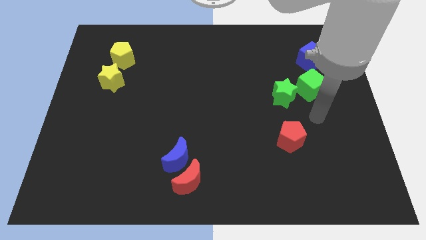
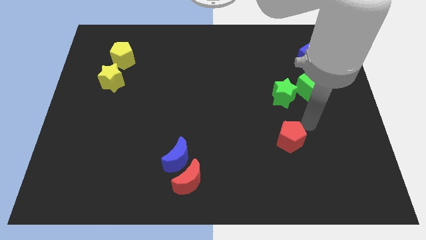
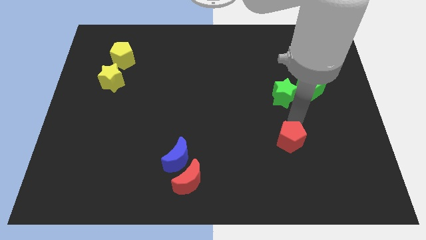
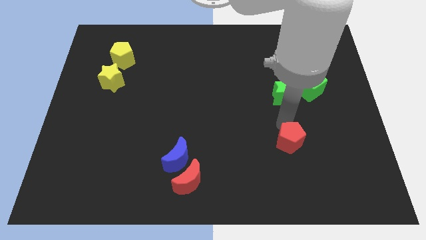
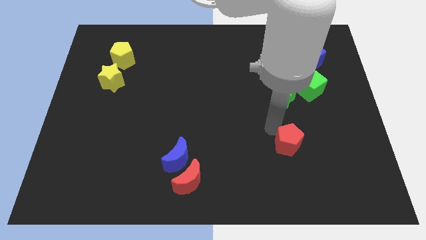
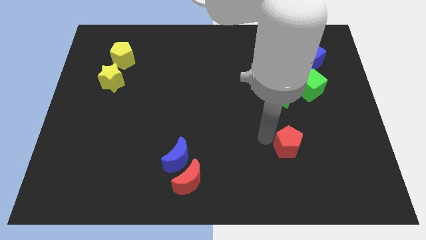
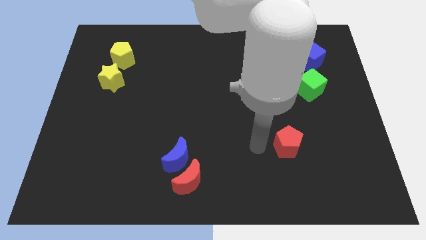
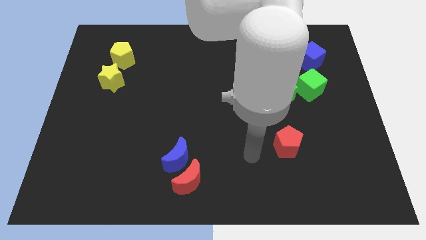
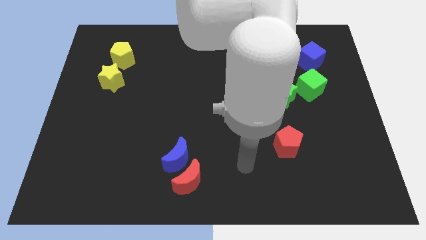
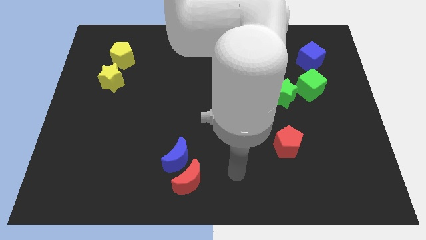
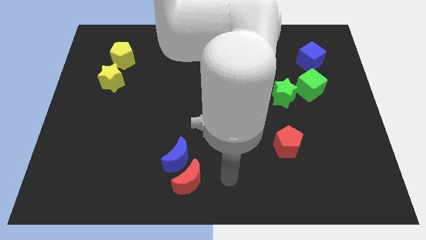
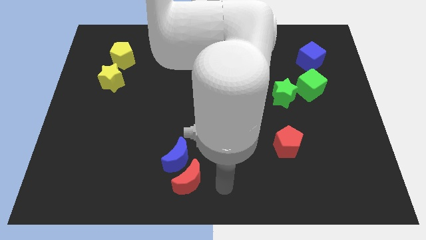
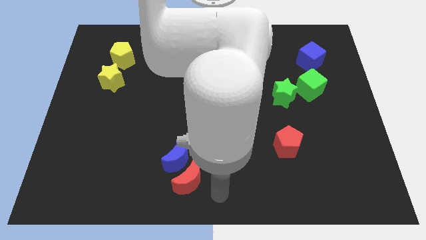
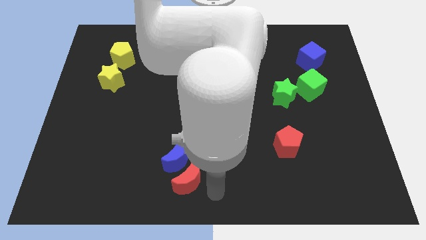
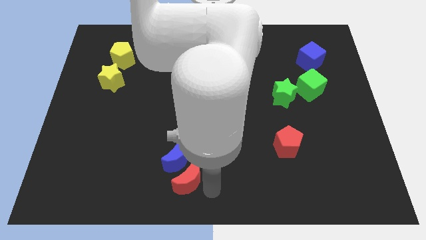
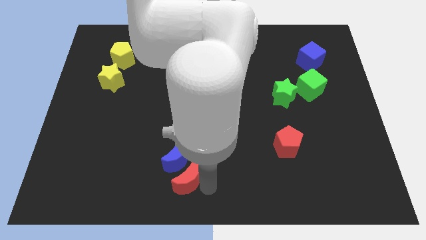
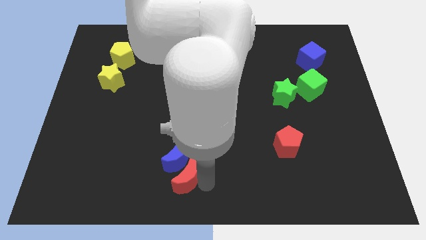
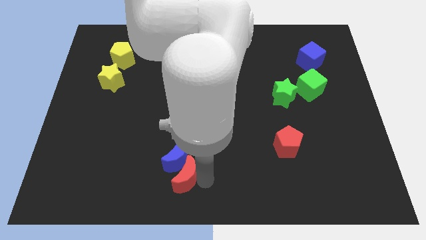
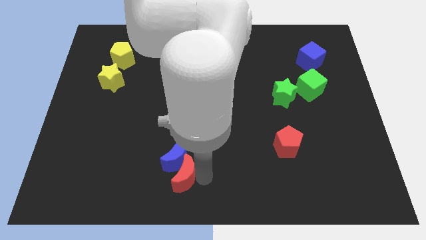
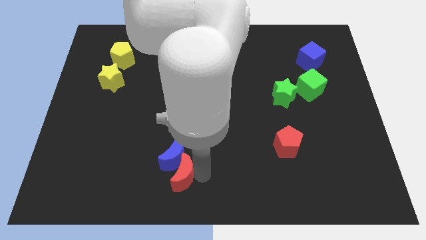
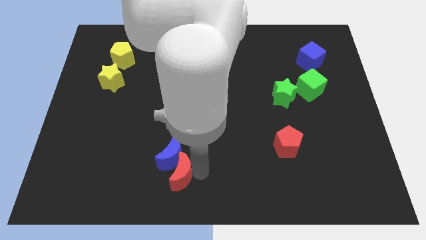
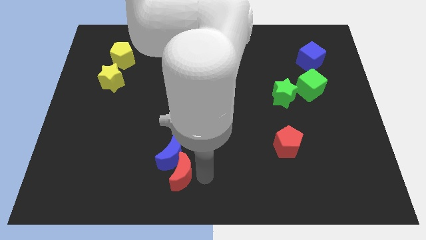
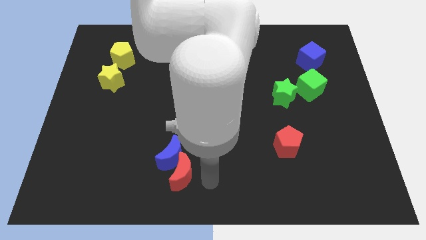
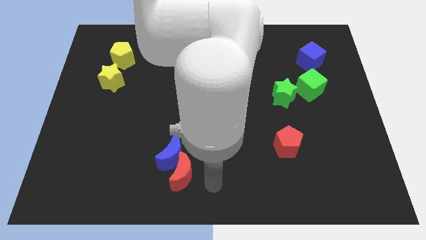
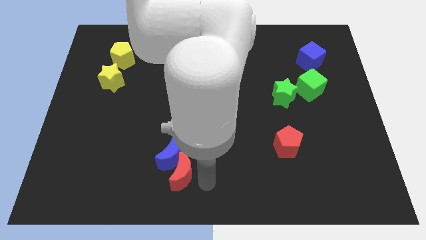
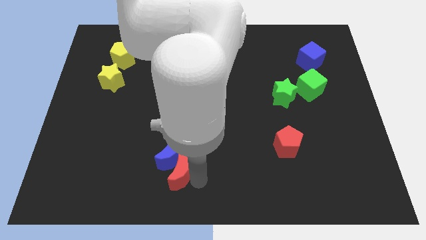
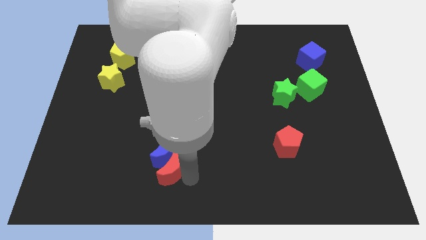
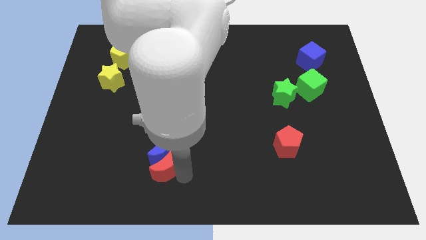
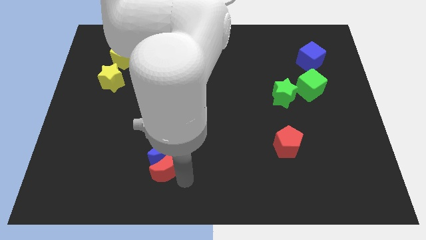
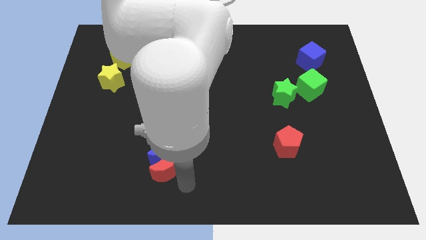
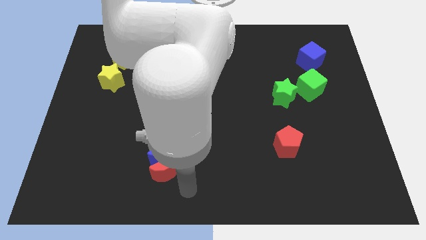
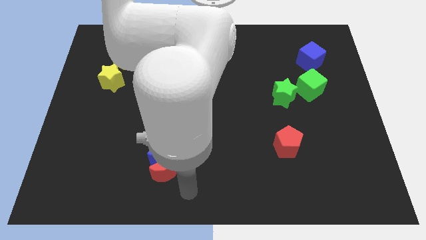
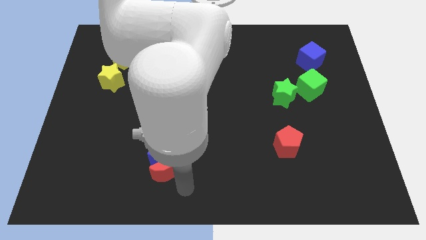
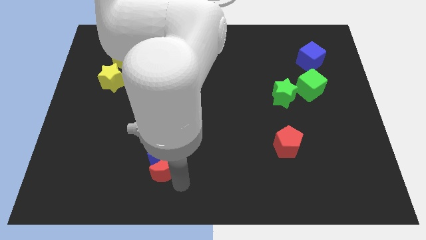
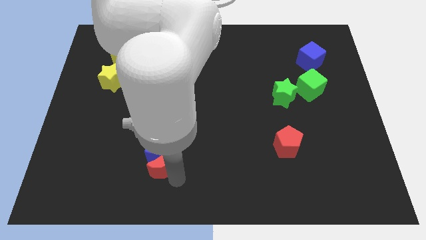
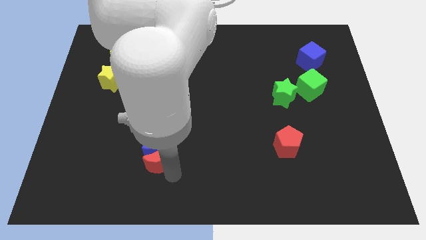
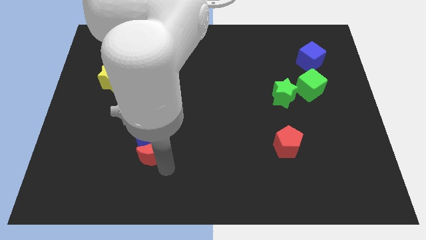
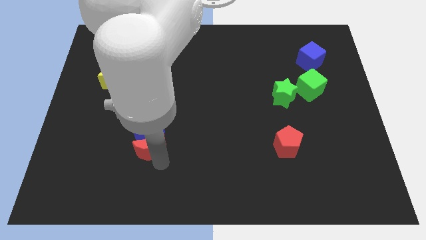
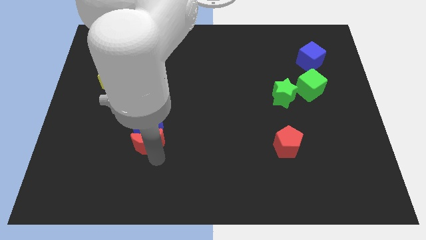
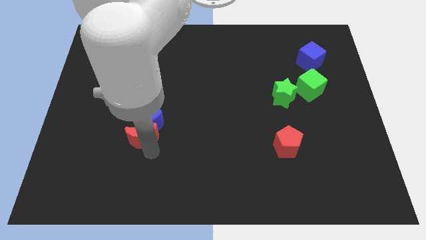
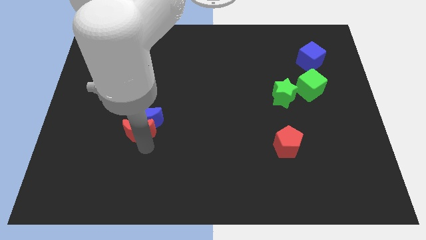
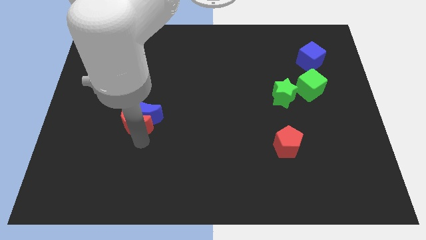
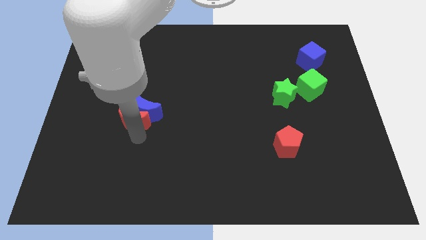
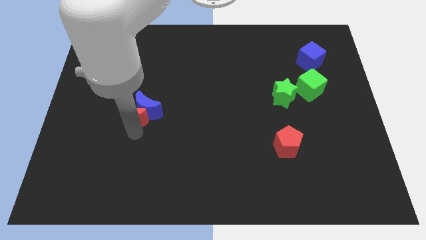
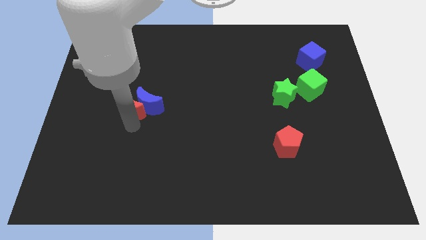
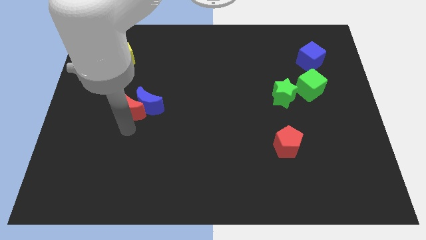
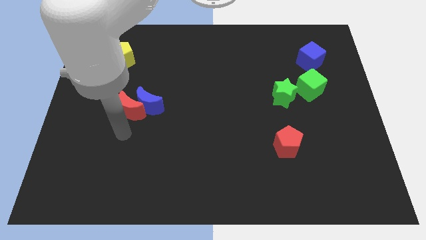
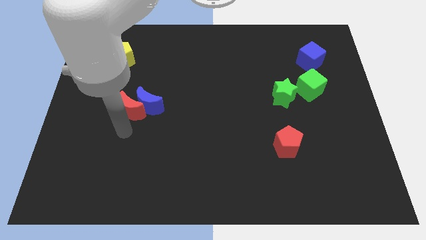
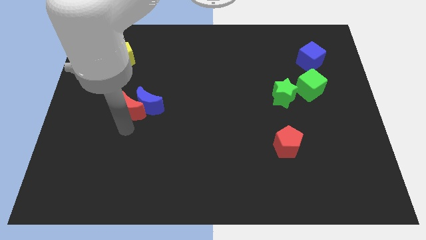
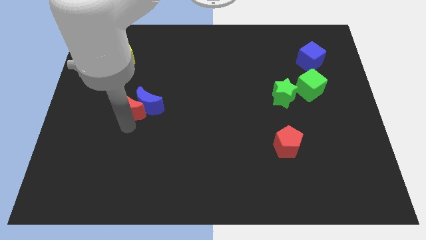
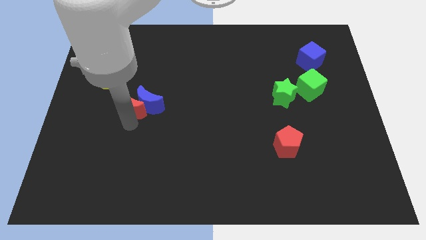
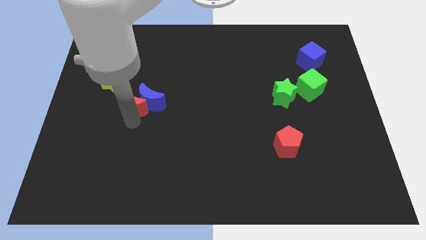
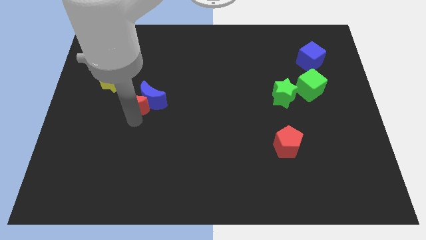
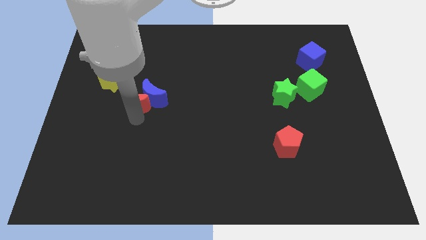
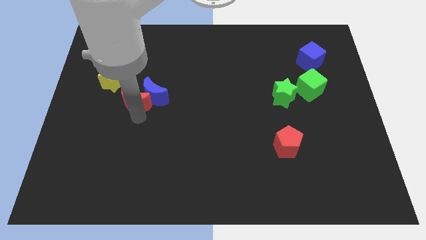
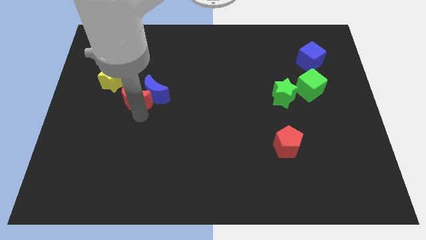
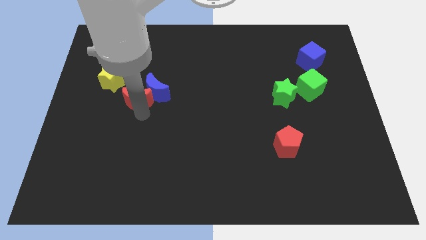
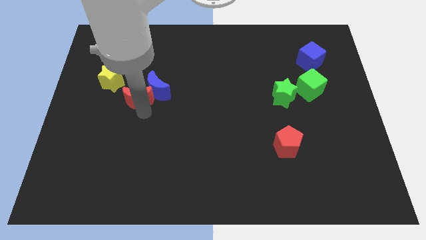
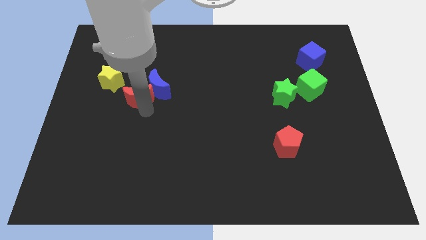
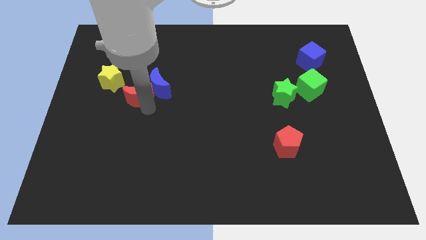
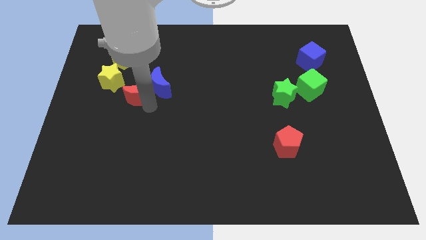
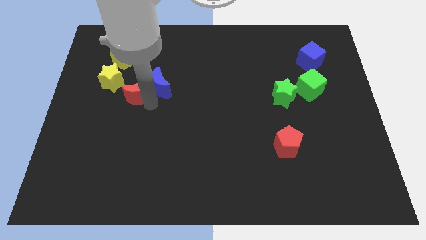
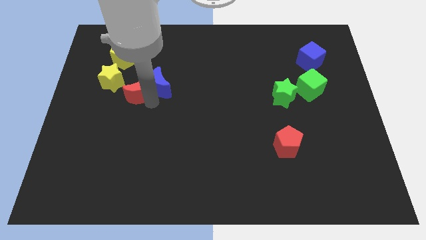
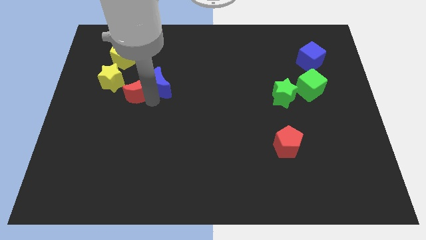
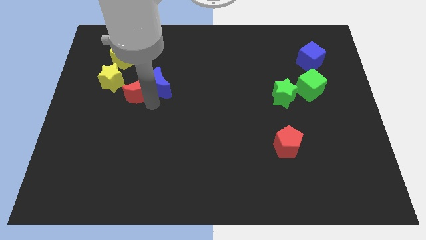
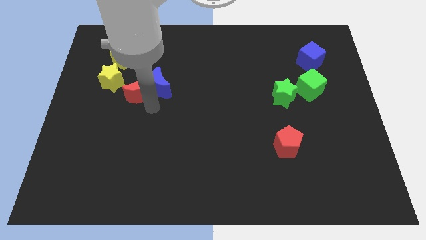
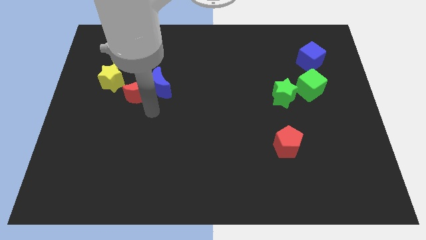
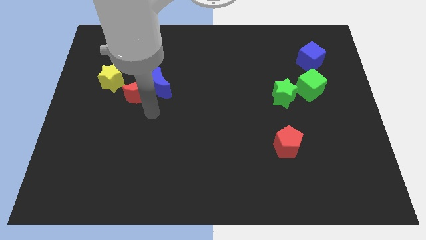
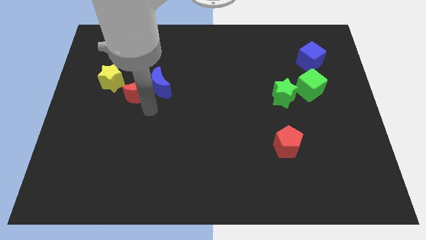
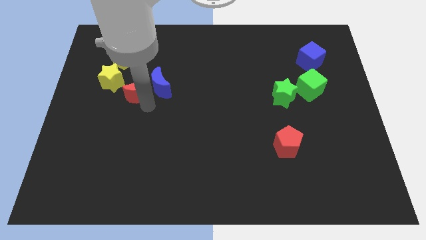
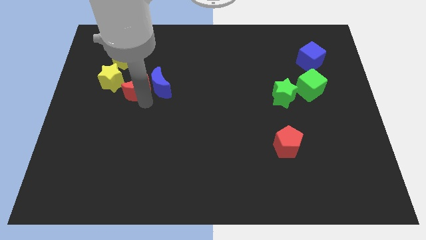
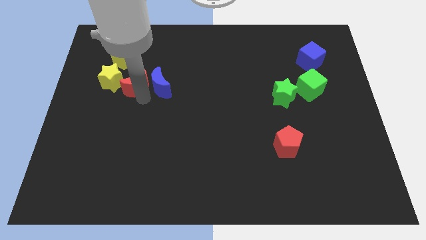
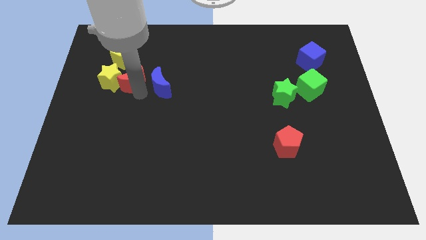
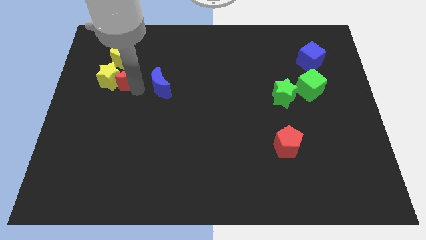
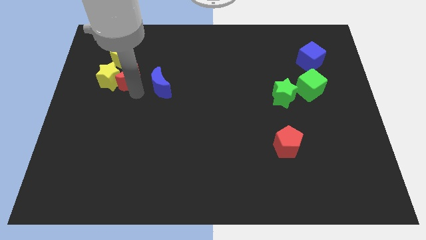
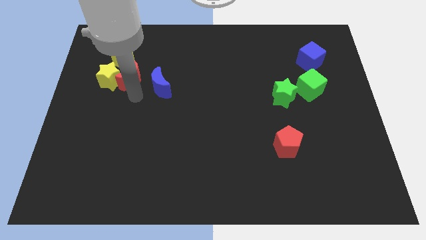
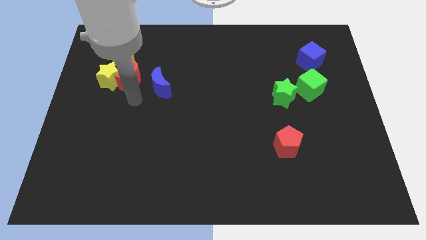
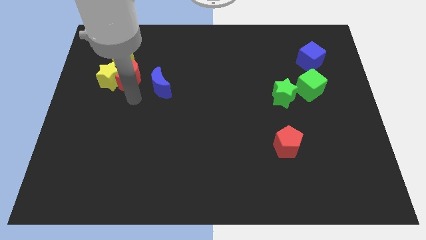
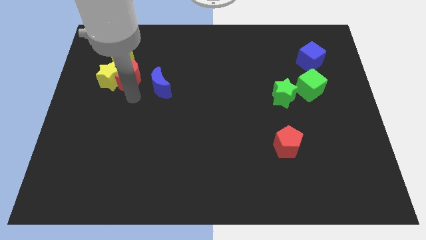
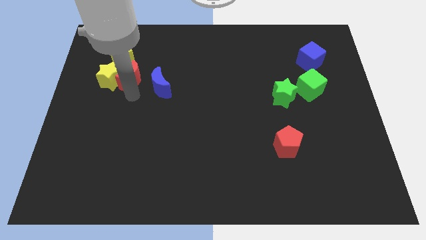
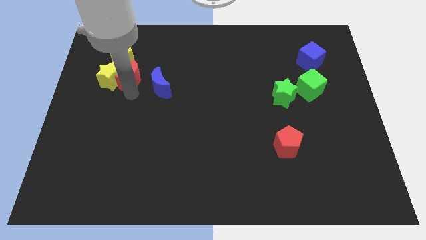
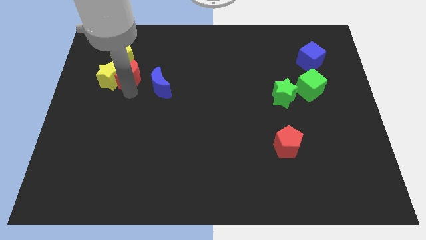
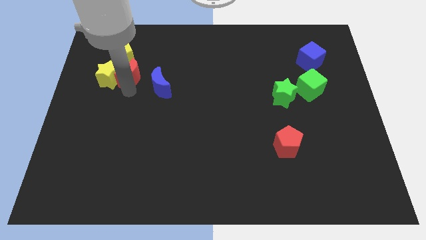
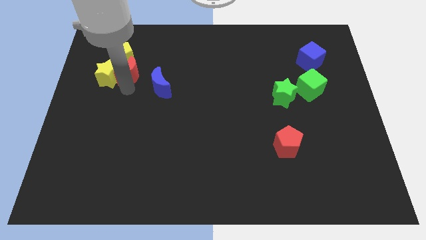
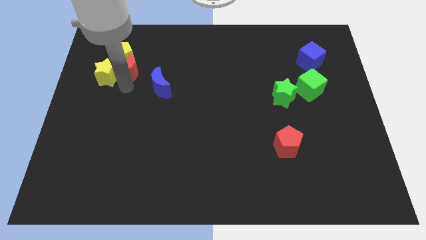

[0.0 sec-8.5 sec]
move the red moon close to the yellow pentagon
